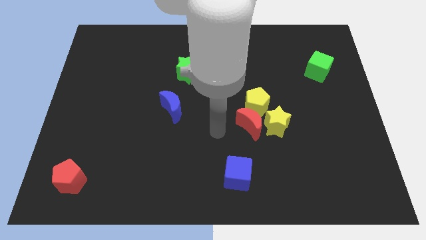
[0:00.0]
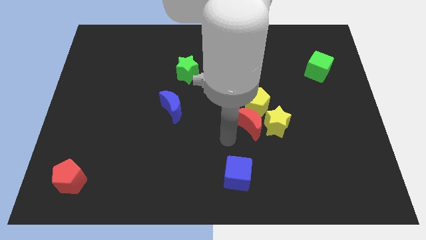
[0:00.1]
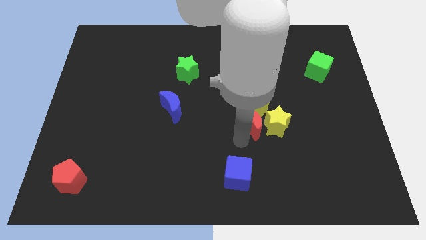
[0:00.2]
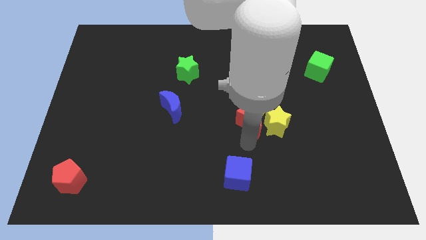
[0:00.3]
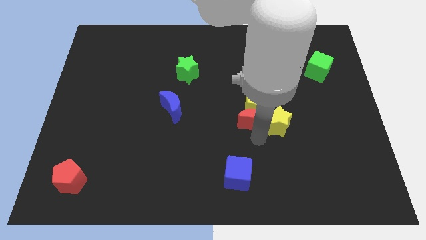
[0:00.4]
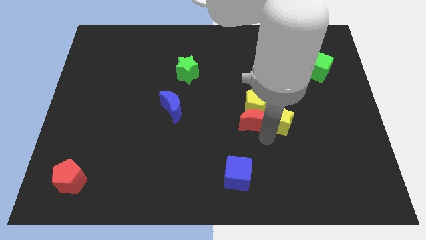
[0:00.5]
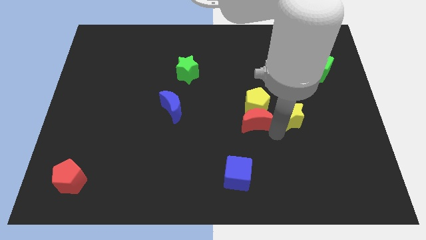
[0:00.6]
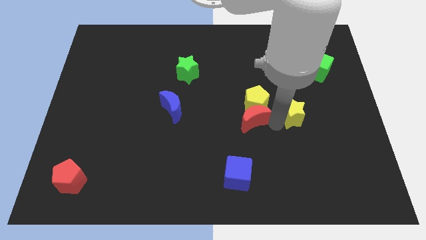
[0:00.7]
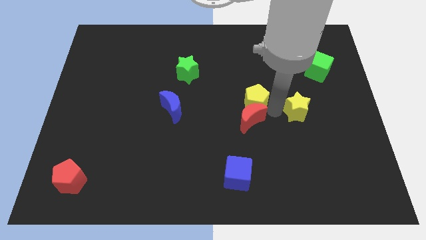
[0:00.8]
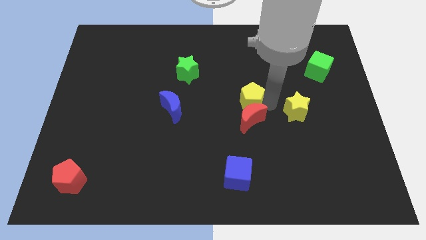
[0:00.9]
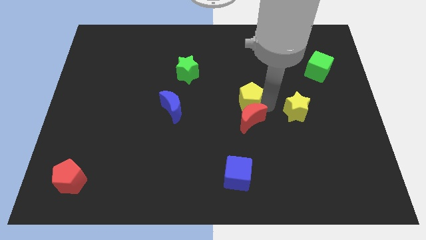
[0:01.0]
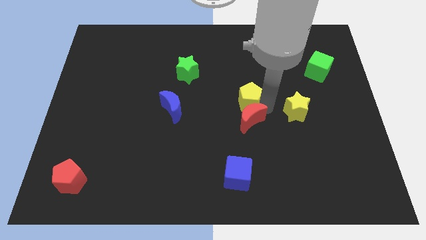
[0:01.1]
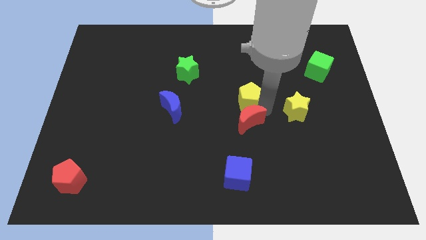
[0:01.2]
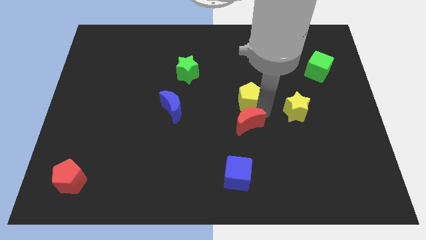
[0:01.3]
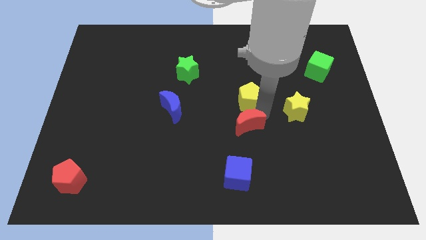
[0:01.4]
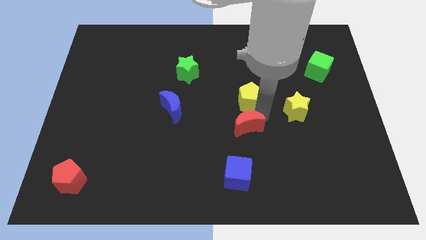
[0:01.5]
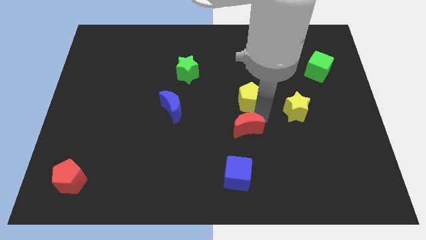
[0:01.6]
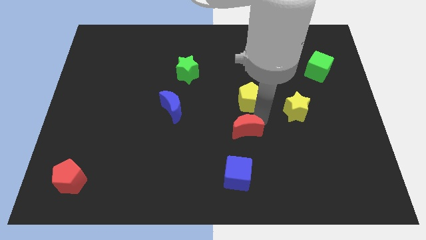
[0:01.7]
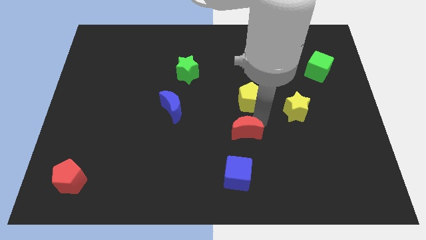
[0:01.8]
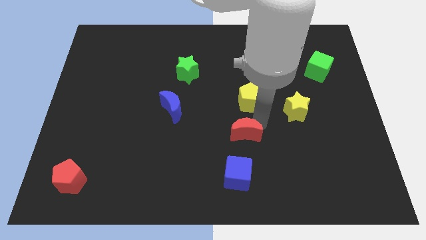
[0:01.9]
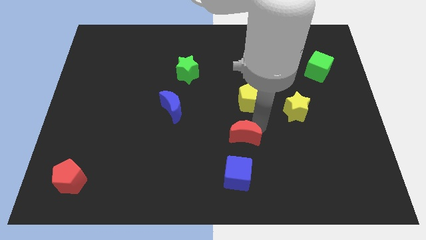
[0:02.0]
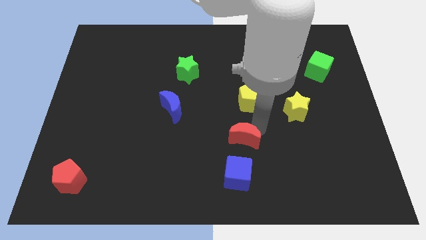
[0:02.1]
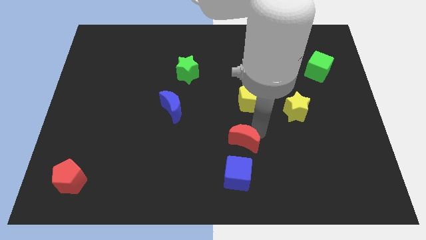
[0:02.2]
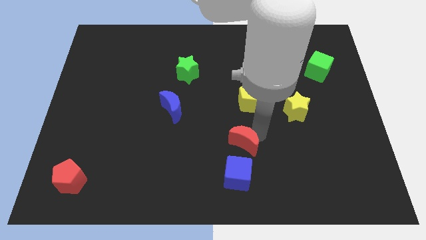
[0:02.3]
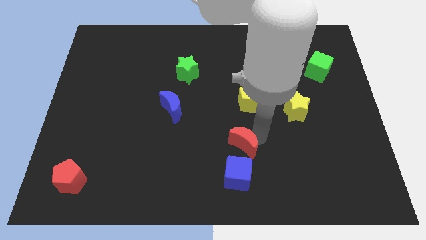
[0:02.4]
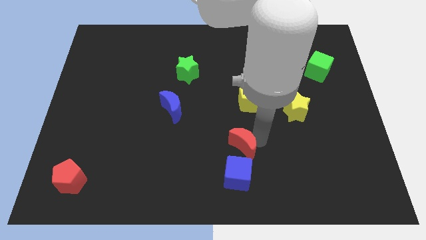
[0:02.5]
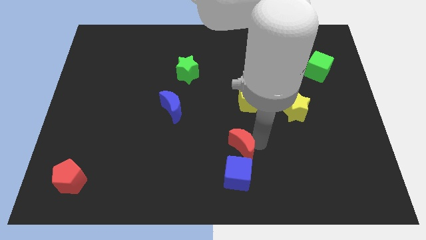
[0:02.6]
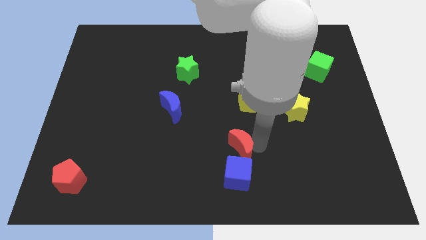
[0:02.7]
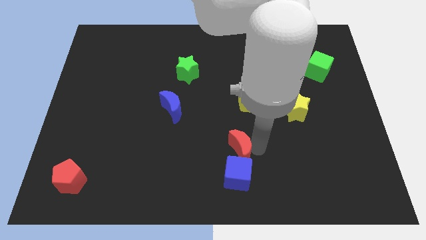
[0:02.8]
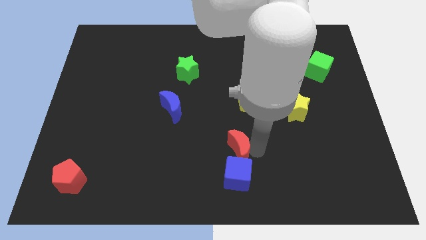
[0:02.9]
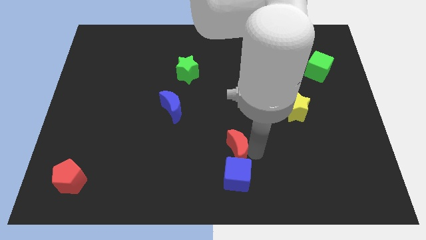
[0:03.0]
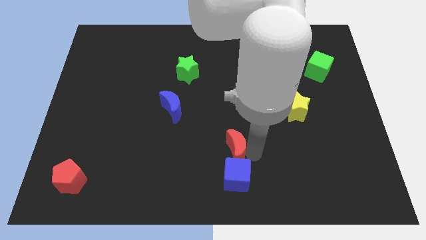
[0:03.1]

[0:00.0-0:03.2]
slightly slide the red moon diagonally down and left

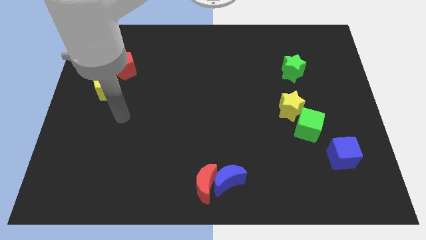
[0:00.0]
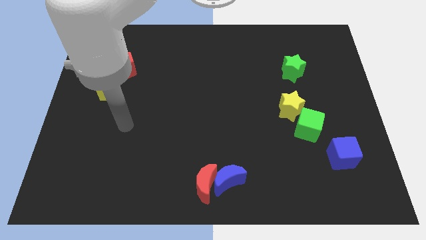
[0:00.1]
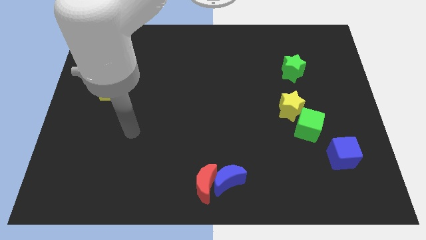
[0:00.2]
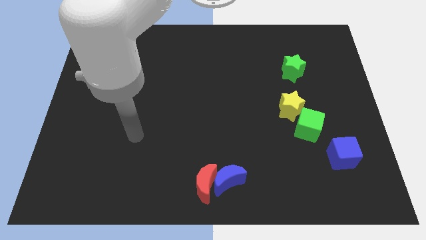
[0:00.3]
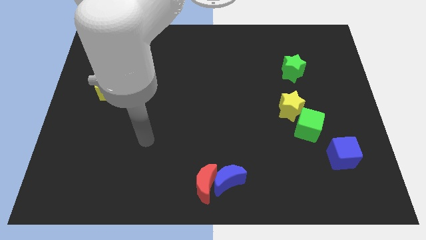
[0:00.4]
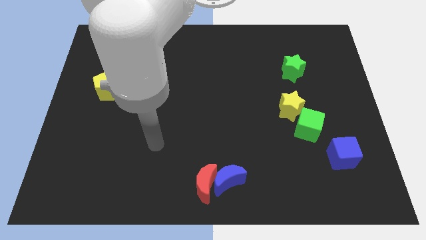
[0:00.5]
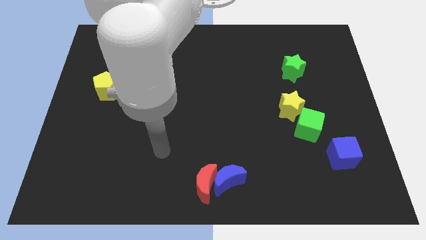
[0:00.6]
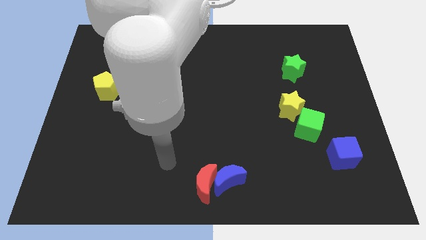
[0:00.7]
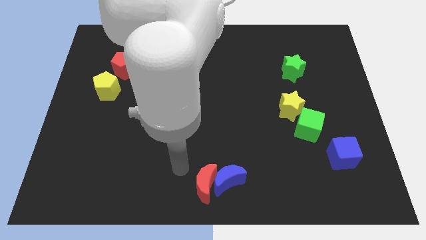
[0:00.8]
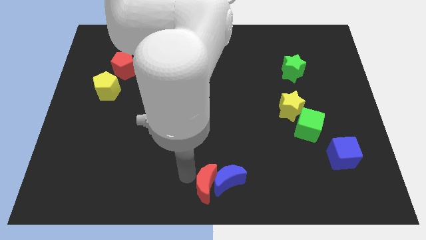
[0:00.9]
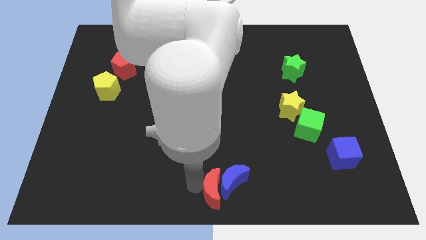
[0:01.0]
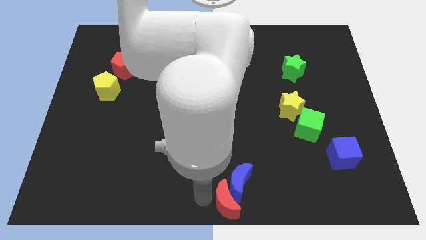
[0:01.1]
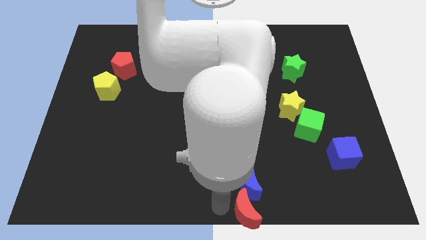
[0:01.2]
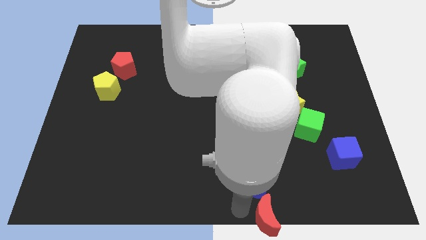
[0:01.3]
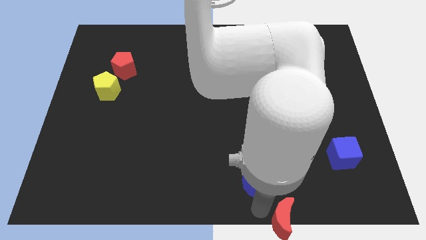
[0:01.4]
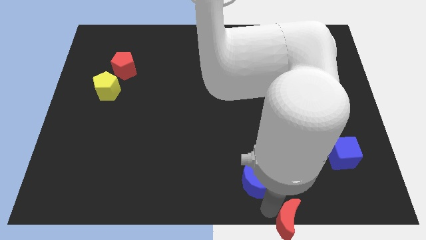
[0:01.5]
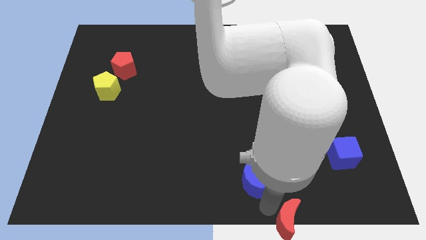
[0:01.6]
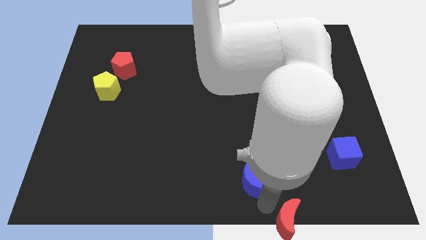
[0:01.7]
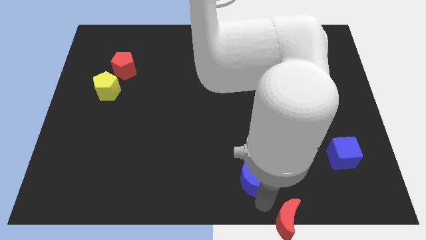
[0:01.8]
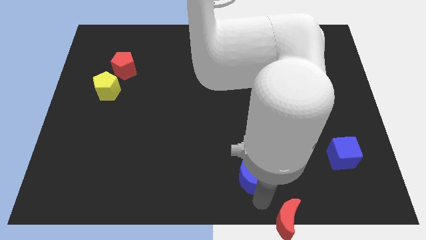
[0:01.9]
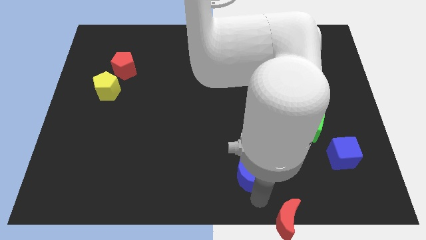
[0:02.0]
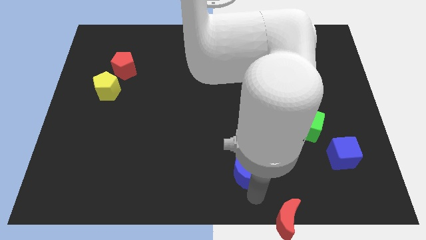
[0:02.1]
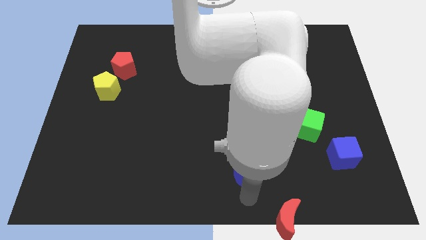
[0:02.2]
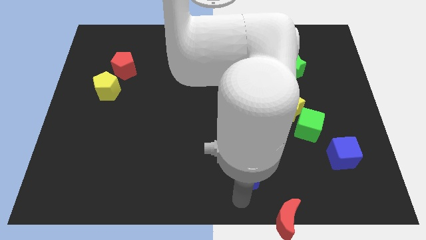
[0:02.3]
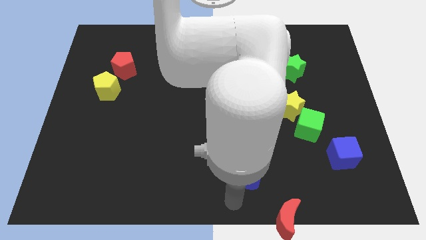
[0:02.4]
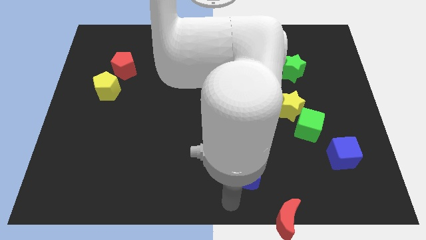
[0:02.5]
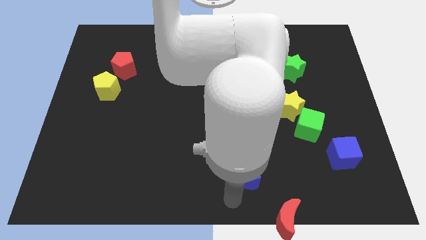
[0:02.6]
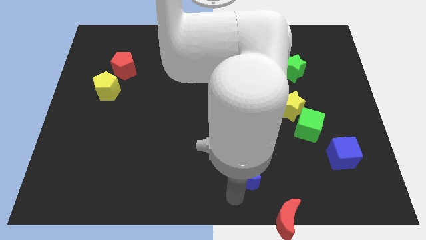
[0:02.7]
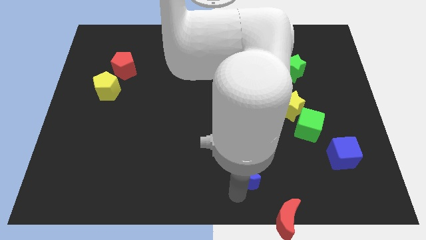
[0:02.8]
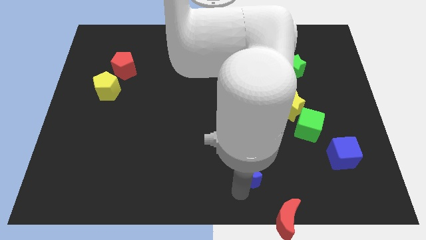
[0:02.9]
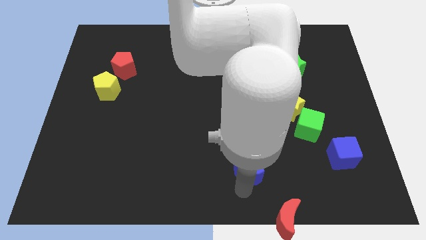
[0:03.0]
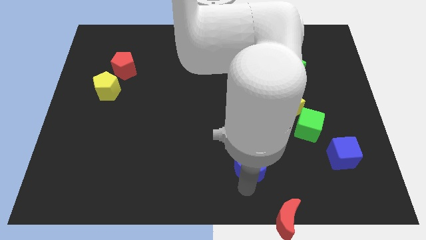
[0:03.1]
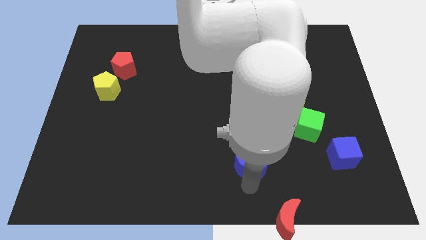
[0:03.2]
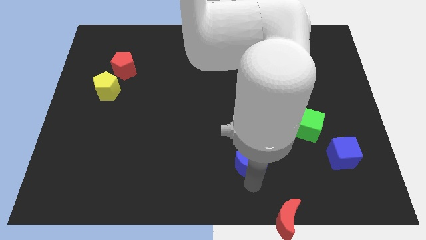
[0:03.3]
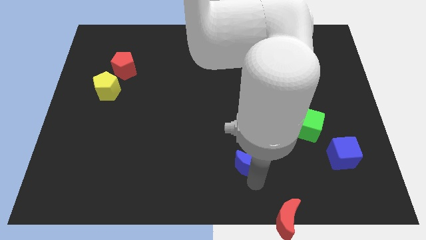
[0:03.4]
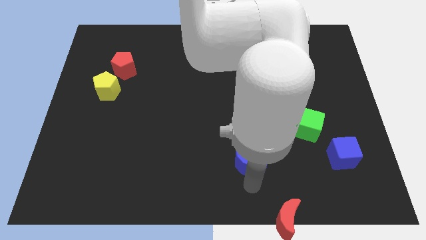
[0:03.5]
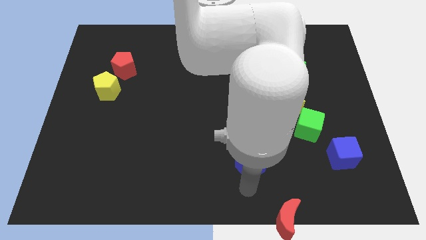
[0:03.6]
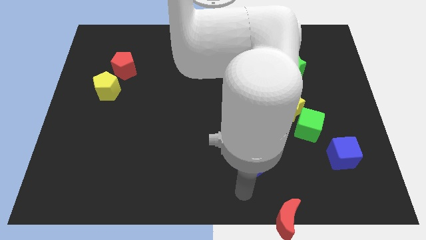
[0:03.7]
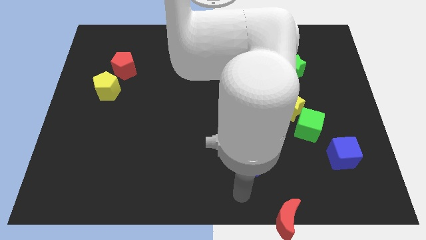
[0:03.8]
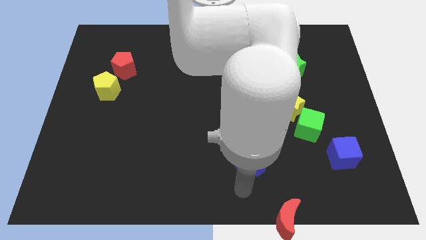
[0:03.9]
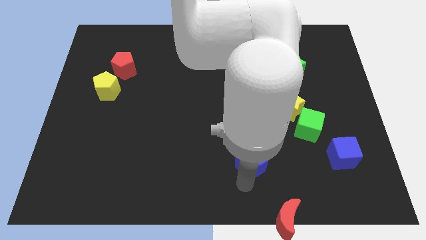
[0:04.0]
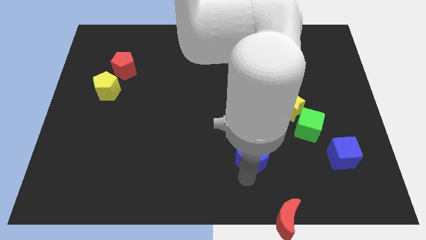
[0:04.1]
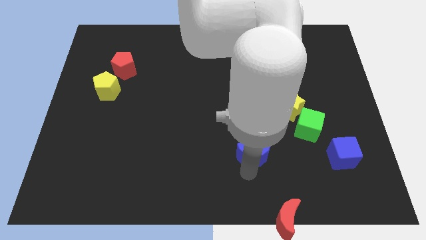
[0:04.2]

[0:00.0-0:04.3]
slide the blue moon a bit diagonally up and right
